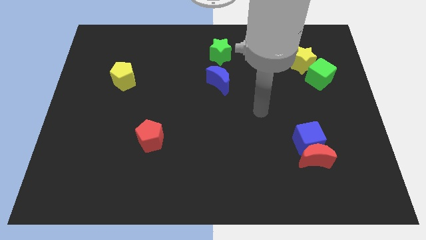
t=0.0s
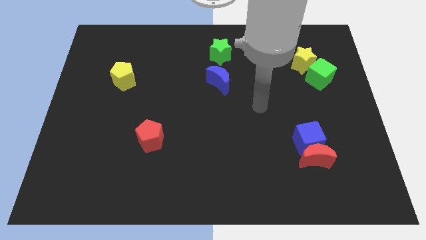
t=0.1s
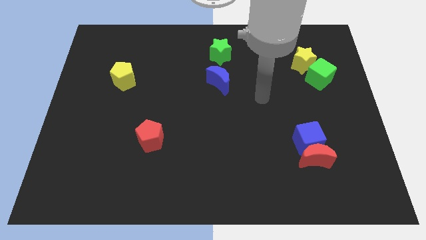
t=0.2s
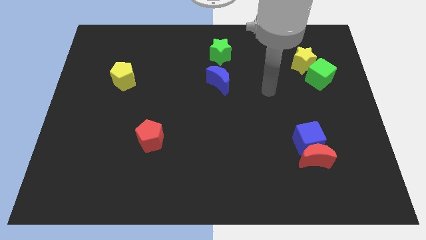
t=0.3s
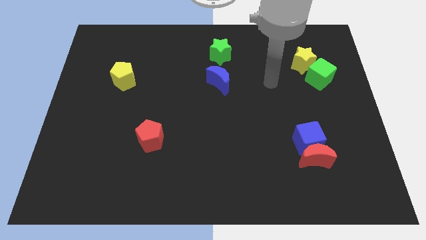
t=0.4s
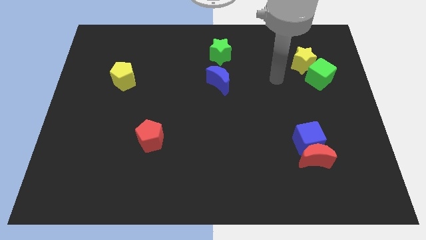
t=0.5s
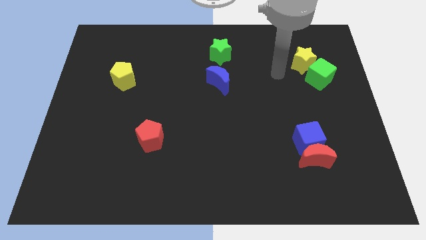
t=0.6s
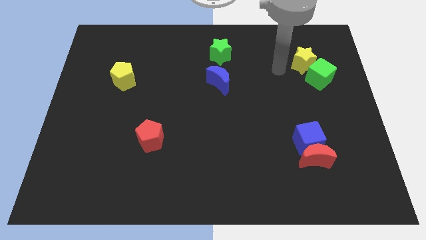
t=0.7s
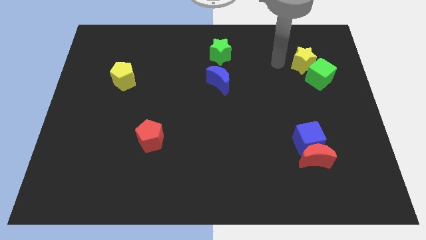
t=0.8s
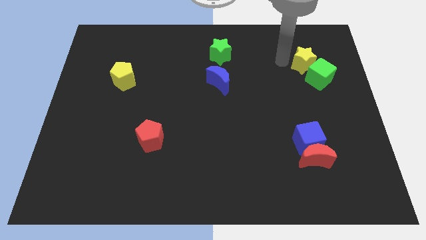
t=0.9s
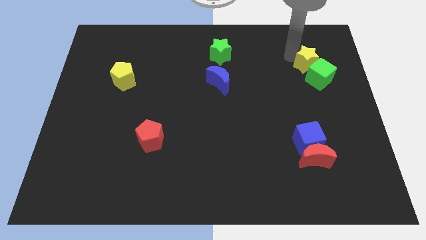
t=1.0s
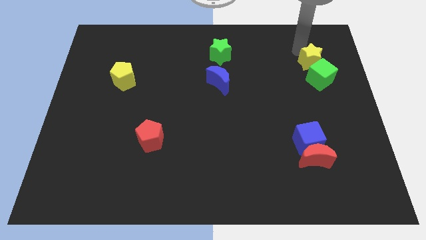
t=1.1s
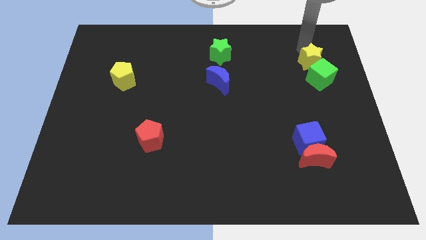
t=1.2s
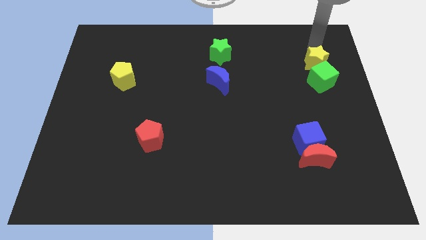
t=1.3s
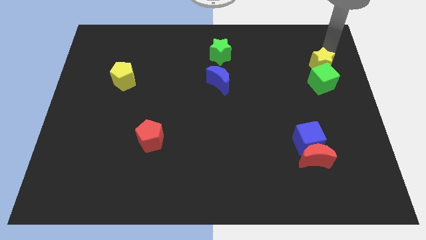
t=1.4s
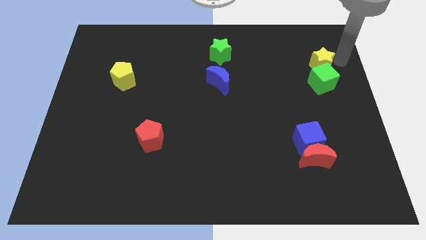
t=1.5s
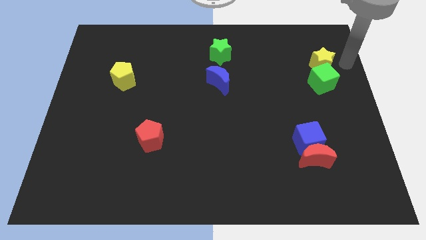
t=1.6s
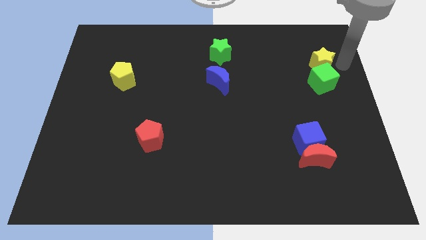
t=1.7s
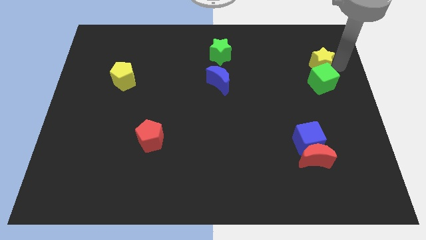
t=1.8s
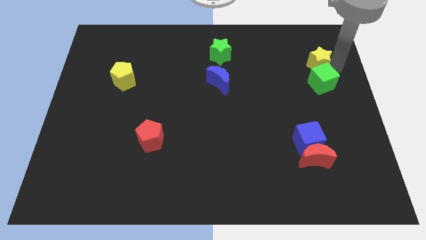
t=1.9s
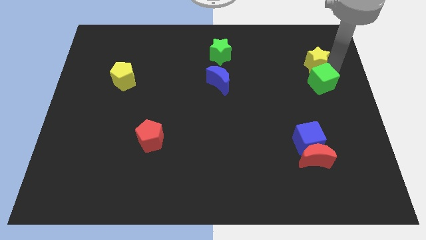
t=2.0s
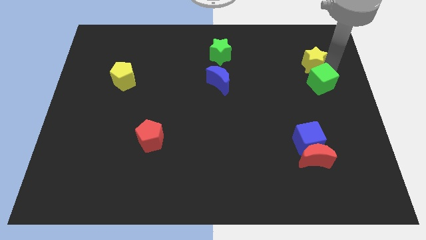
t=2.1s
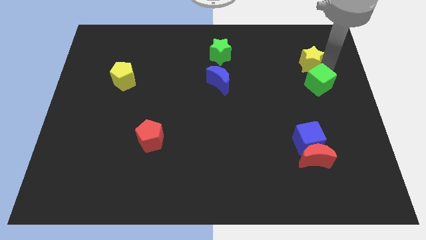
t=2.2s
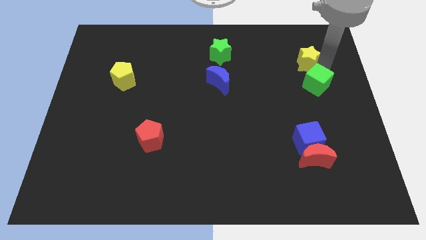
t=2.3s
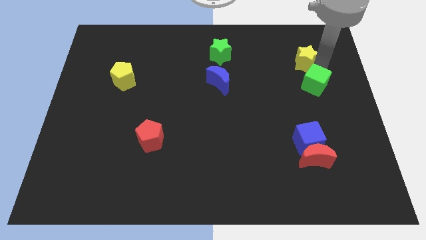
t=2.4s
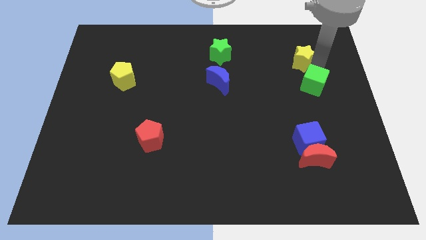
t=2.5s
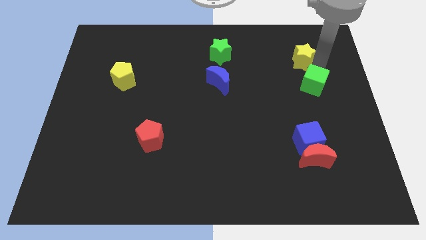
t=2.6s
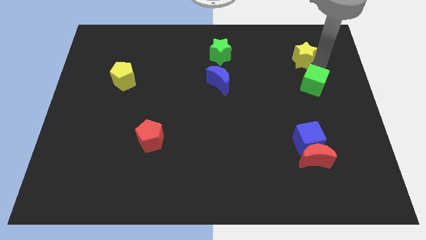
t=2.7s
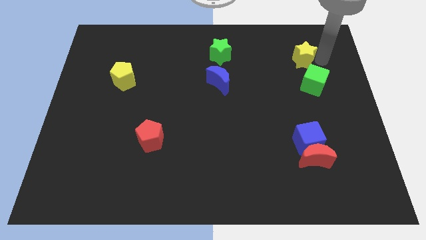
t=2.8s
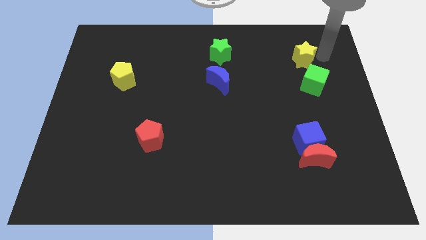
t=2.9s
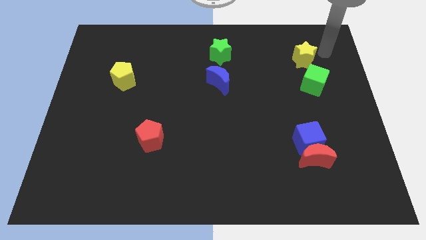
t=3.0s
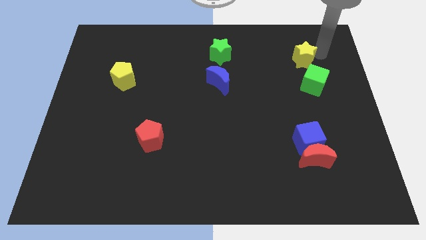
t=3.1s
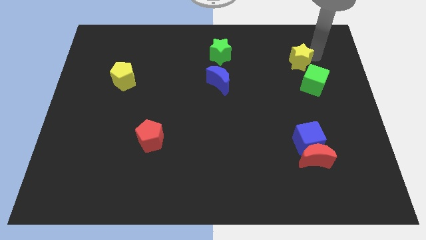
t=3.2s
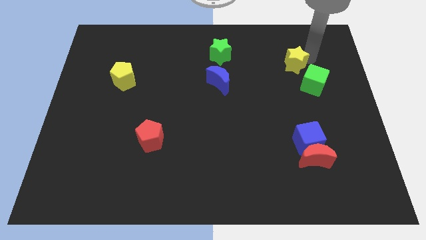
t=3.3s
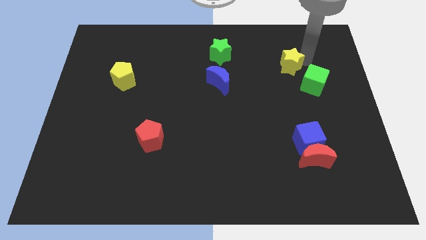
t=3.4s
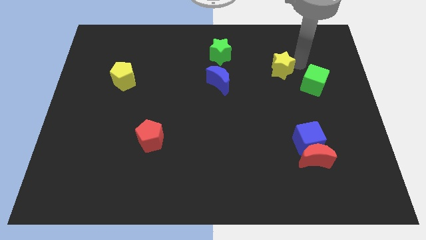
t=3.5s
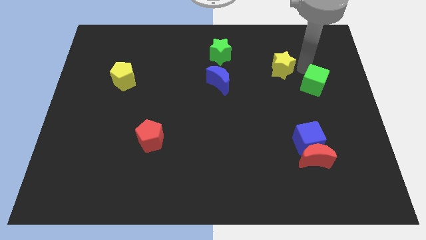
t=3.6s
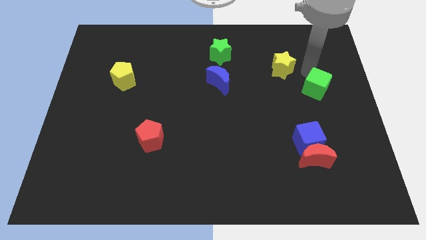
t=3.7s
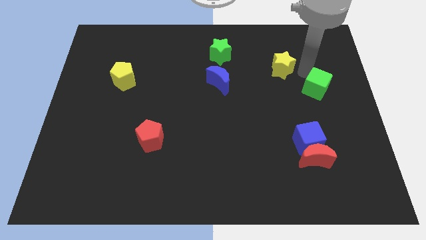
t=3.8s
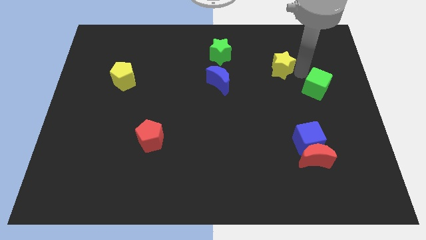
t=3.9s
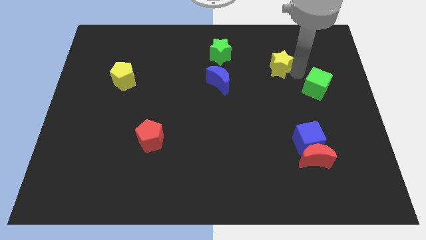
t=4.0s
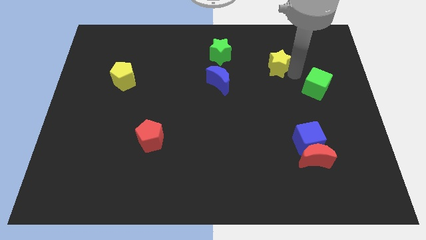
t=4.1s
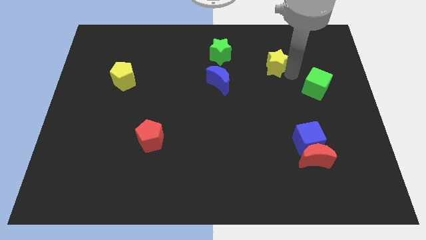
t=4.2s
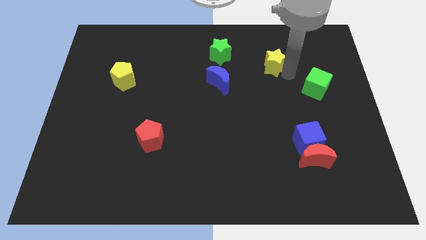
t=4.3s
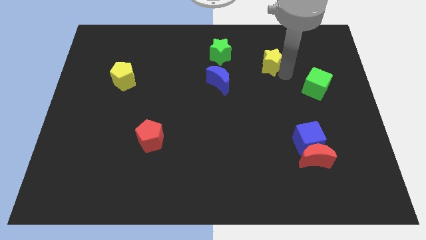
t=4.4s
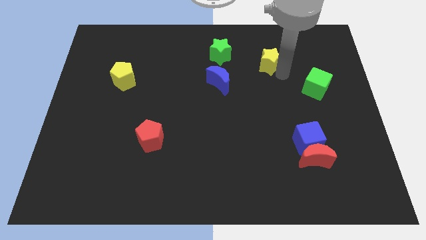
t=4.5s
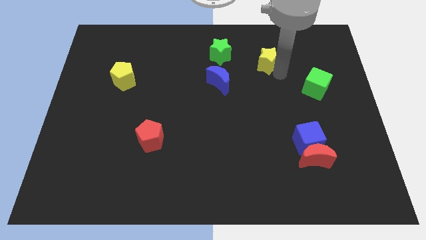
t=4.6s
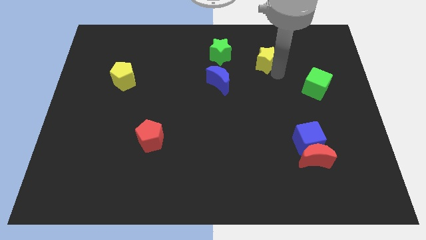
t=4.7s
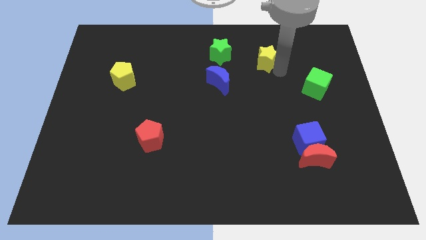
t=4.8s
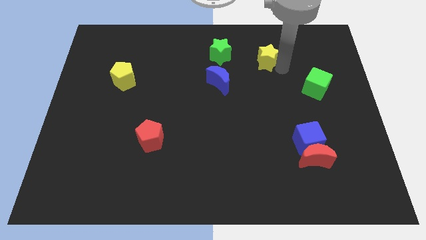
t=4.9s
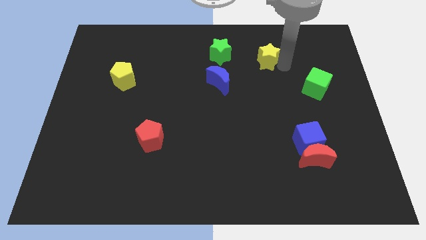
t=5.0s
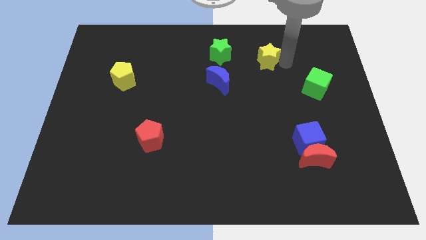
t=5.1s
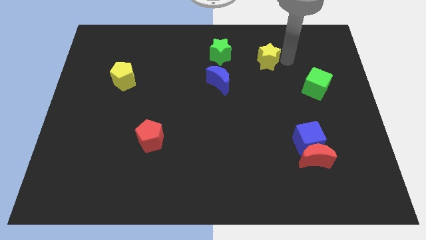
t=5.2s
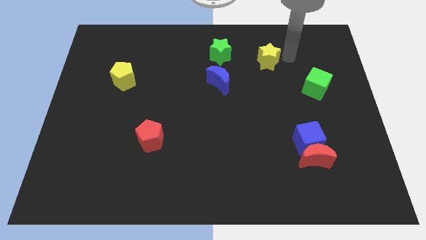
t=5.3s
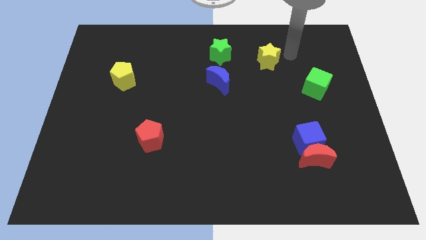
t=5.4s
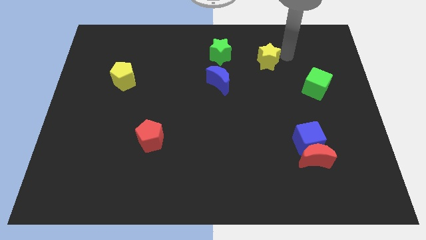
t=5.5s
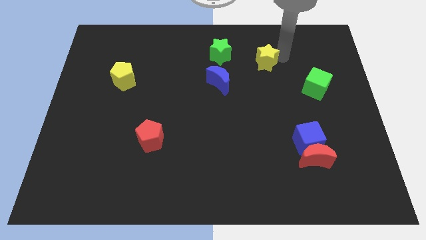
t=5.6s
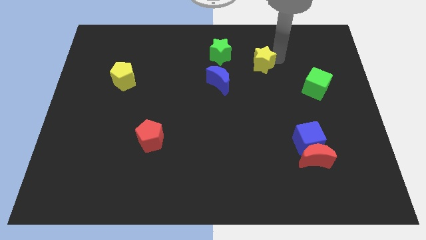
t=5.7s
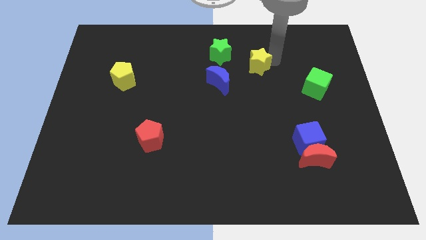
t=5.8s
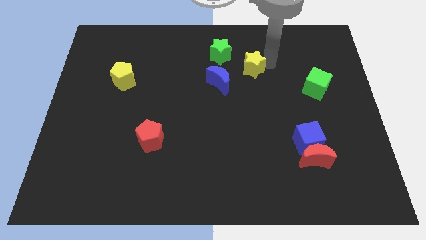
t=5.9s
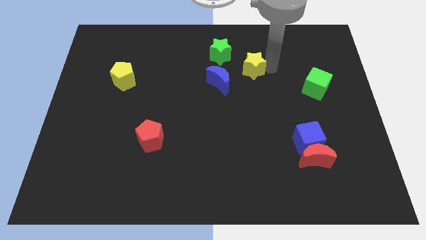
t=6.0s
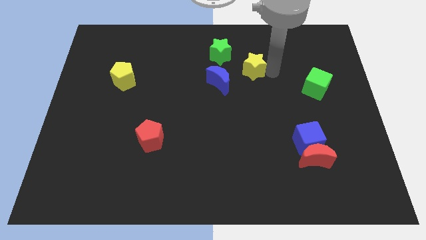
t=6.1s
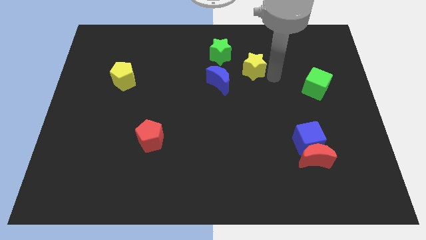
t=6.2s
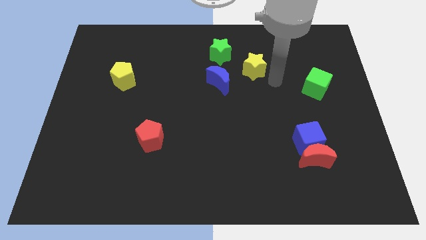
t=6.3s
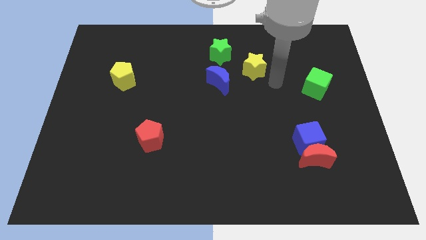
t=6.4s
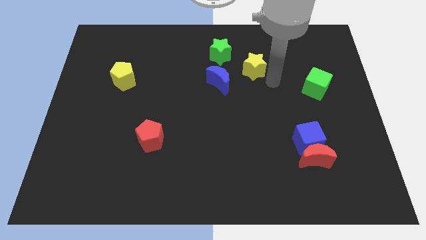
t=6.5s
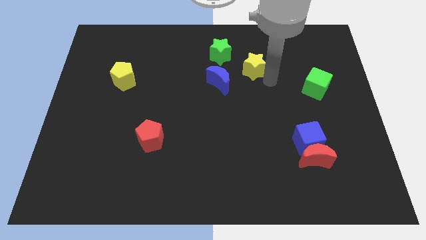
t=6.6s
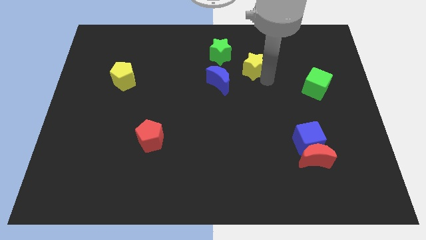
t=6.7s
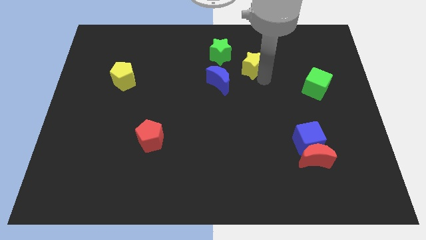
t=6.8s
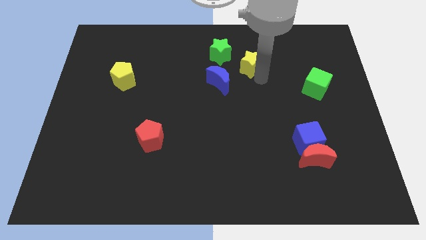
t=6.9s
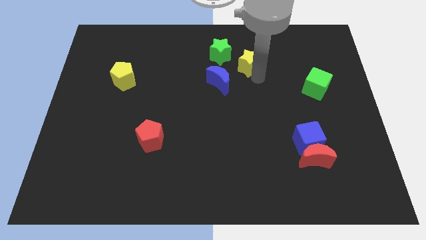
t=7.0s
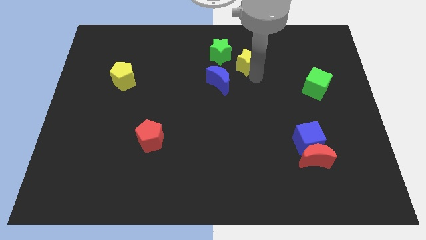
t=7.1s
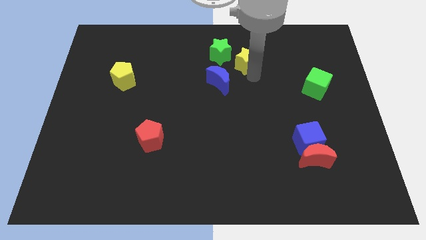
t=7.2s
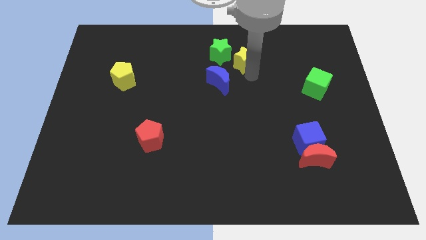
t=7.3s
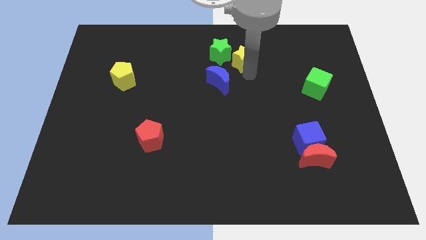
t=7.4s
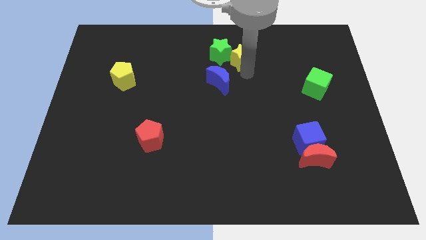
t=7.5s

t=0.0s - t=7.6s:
push the yellow star next to the green star

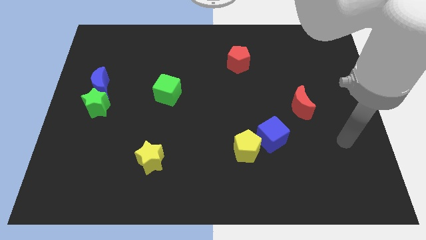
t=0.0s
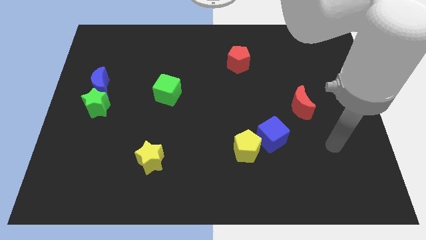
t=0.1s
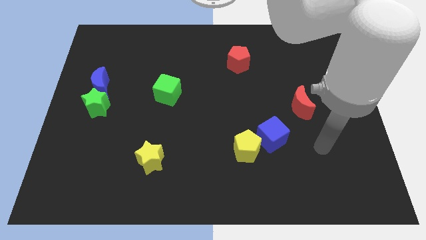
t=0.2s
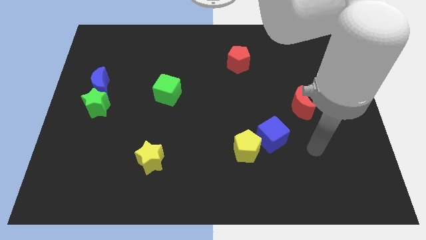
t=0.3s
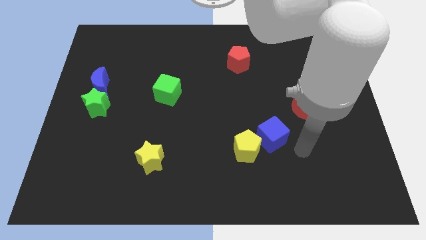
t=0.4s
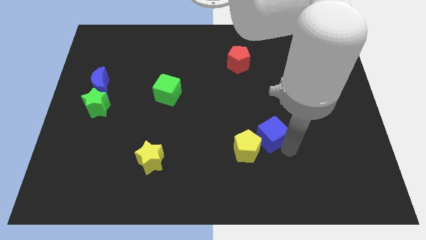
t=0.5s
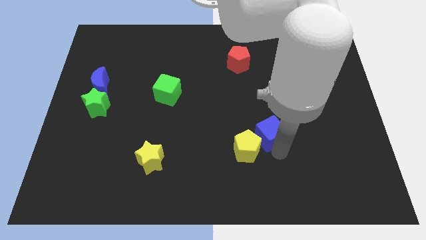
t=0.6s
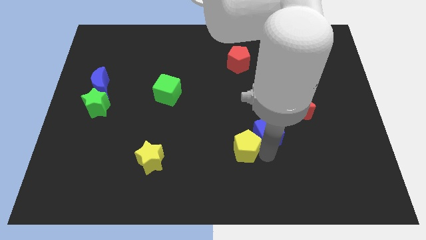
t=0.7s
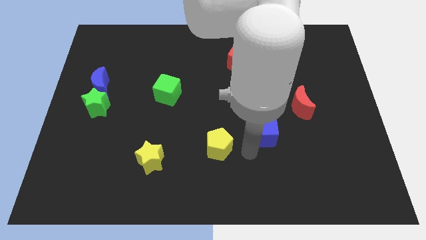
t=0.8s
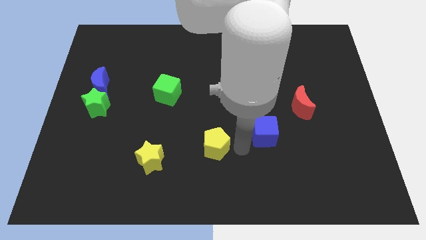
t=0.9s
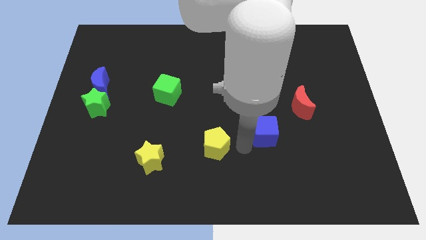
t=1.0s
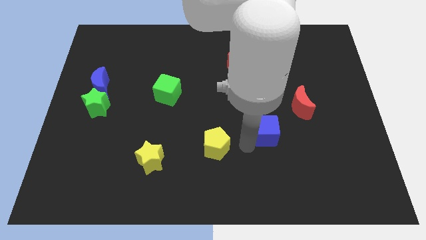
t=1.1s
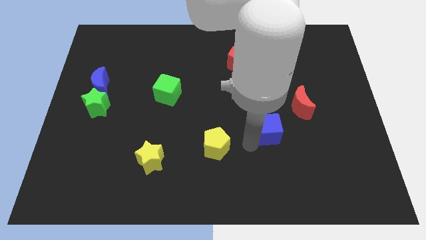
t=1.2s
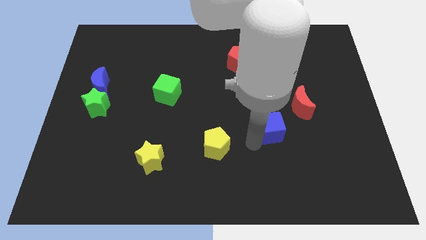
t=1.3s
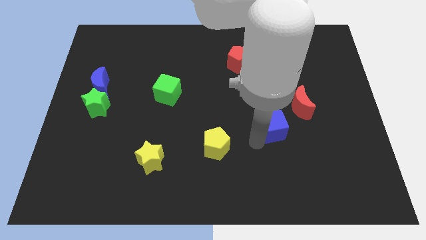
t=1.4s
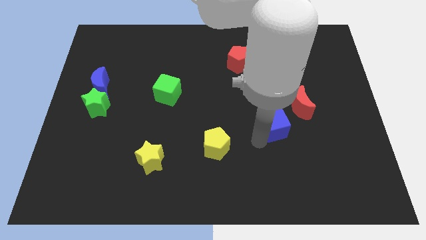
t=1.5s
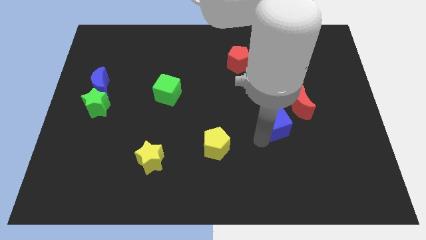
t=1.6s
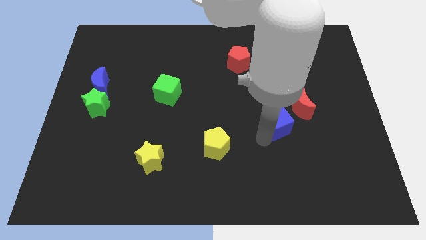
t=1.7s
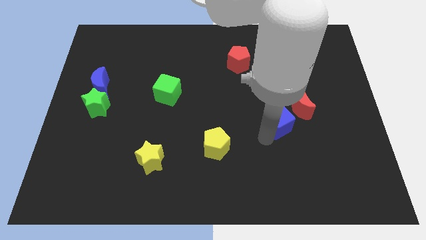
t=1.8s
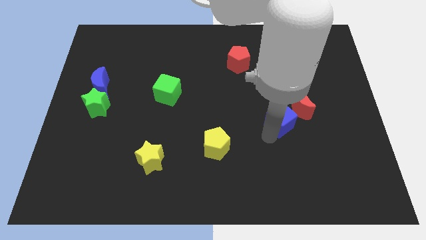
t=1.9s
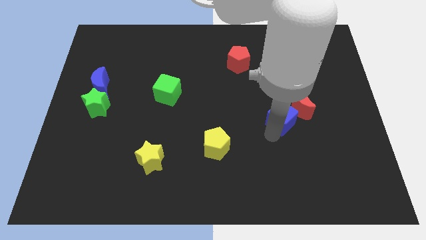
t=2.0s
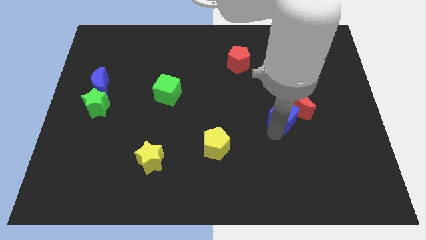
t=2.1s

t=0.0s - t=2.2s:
put the blue cube to the red moon
